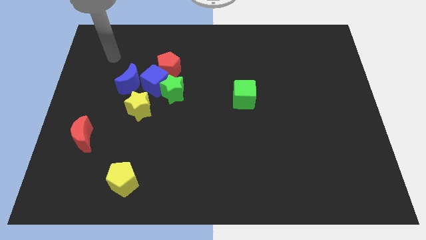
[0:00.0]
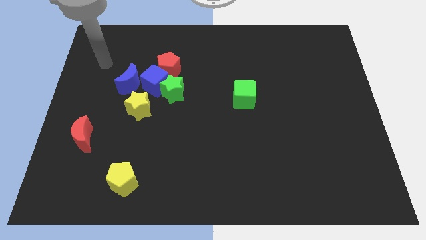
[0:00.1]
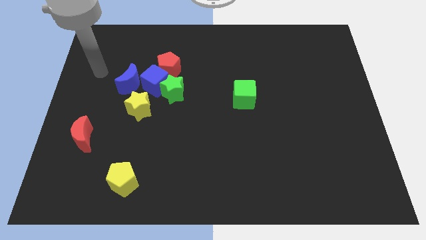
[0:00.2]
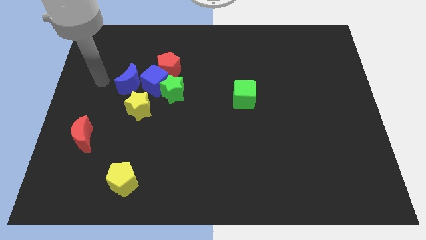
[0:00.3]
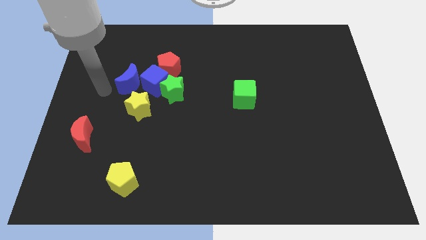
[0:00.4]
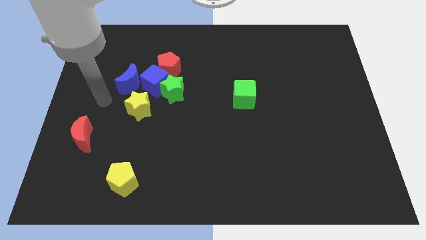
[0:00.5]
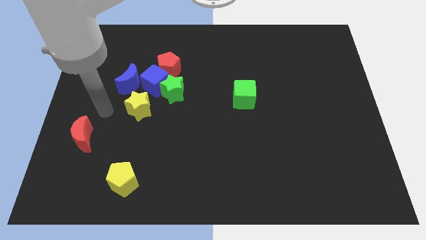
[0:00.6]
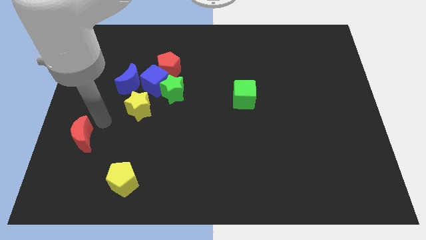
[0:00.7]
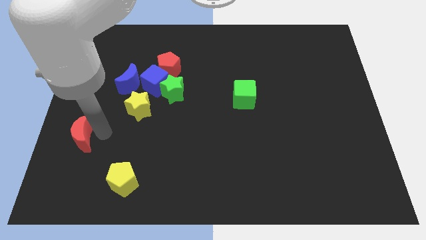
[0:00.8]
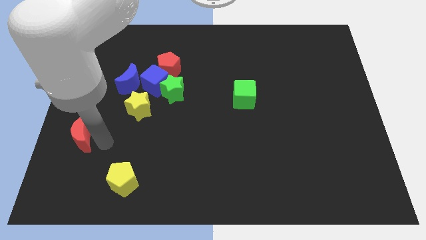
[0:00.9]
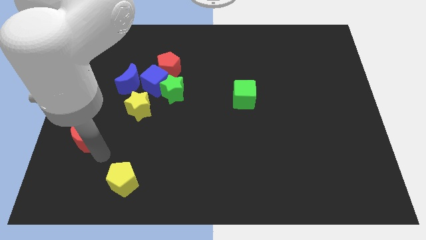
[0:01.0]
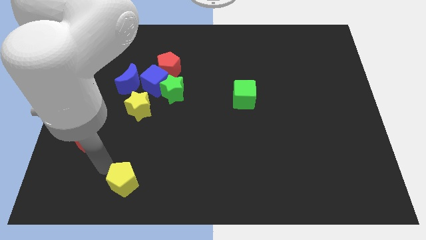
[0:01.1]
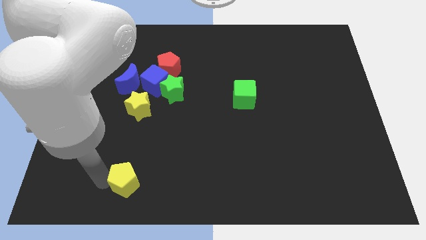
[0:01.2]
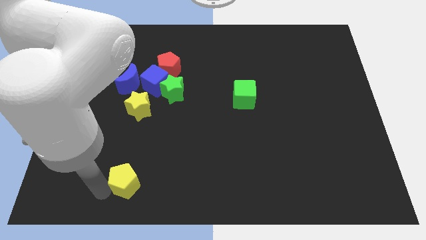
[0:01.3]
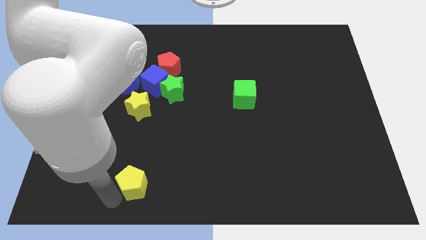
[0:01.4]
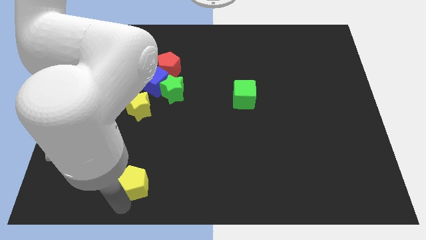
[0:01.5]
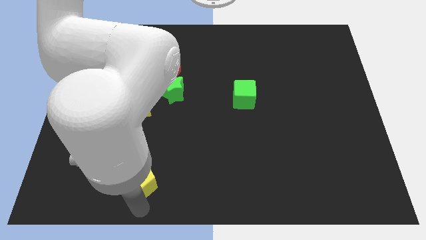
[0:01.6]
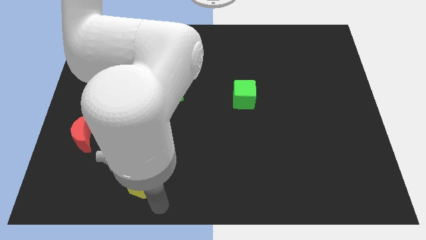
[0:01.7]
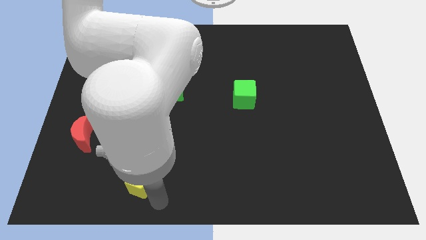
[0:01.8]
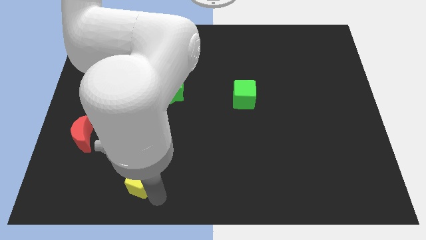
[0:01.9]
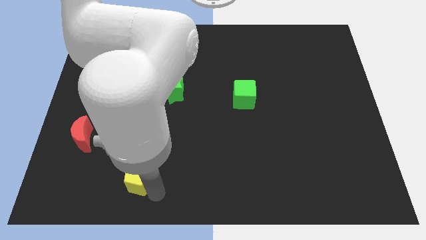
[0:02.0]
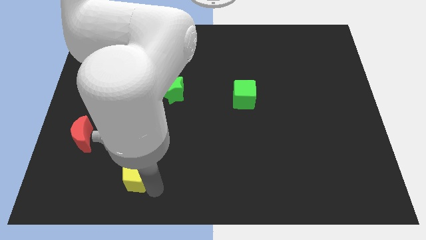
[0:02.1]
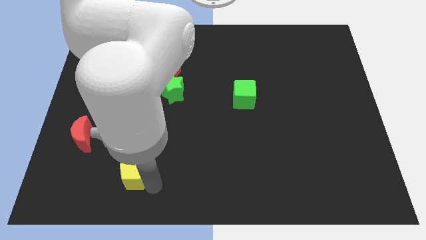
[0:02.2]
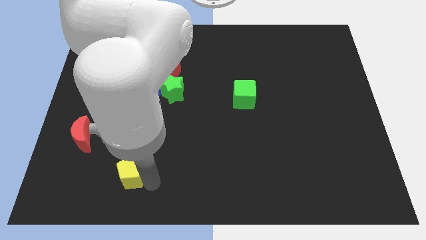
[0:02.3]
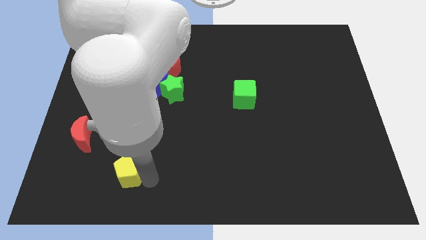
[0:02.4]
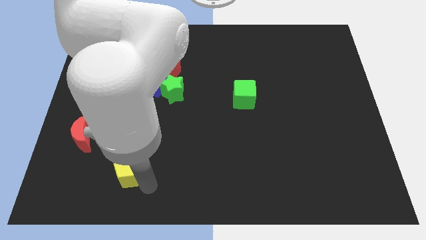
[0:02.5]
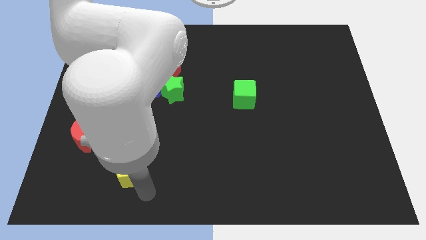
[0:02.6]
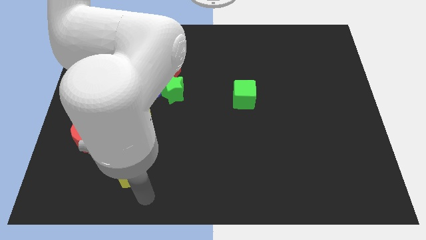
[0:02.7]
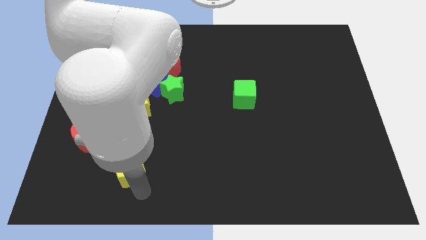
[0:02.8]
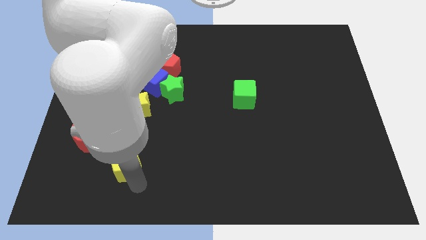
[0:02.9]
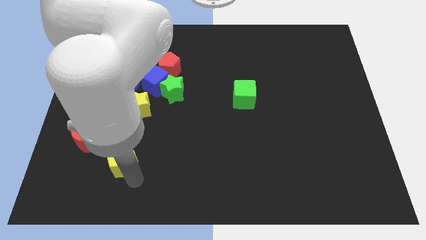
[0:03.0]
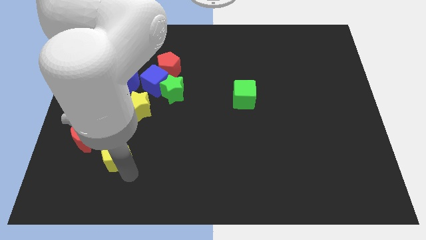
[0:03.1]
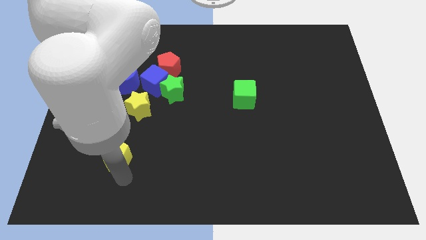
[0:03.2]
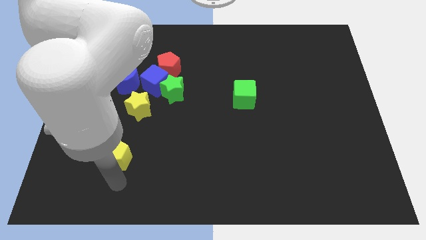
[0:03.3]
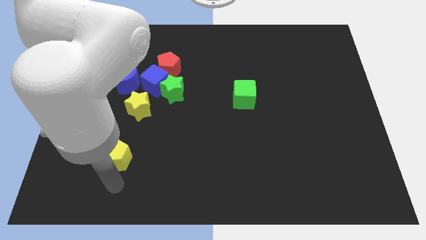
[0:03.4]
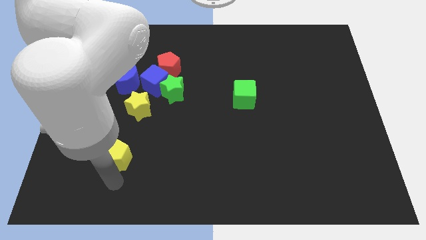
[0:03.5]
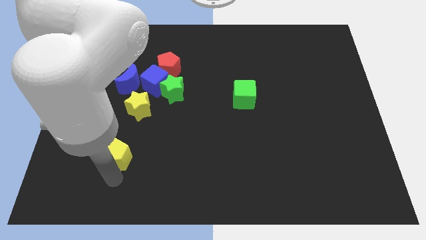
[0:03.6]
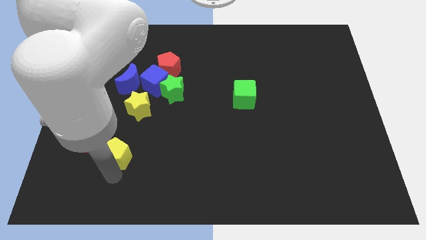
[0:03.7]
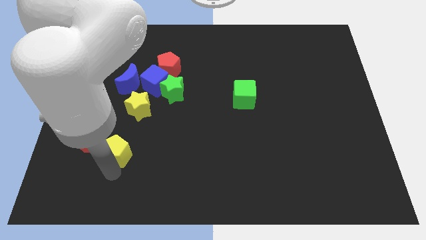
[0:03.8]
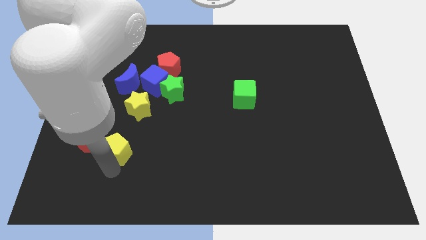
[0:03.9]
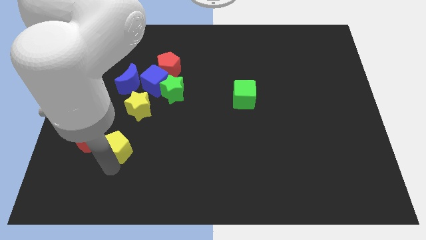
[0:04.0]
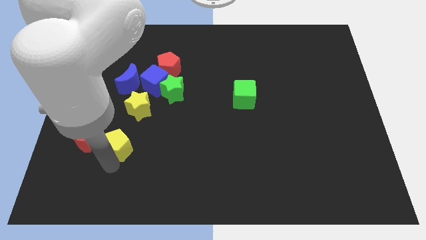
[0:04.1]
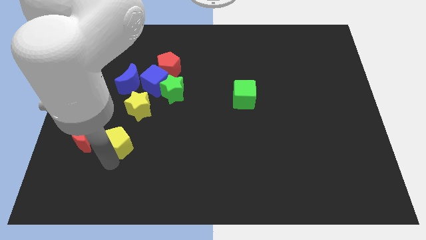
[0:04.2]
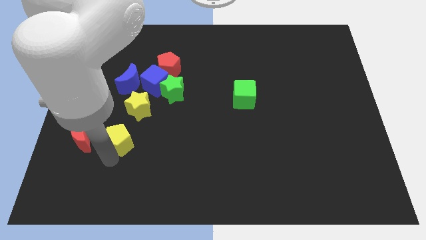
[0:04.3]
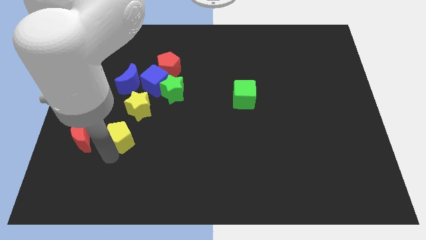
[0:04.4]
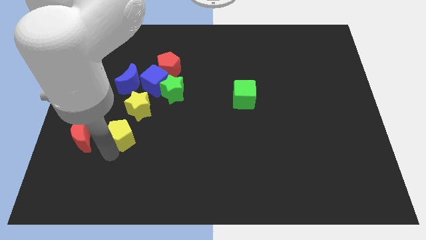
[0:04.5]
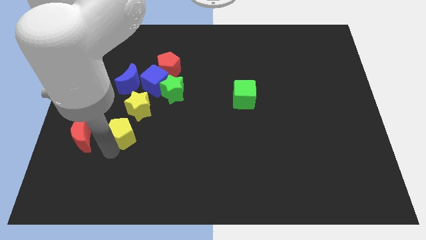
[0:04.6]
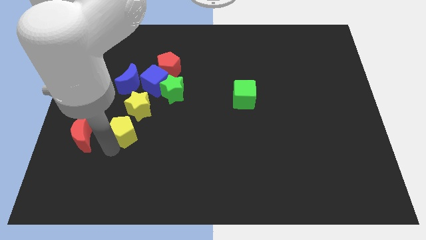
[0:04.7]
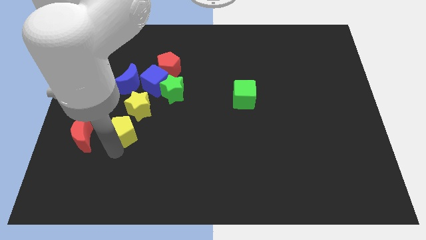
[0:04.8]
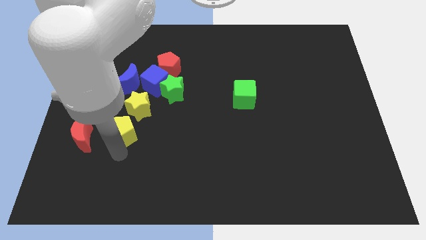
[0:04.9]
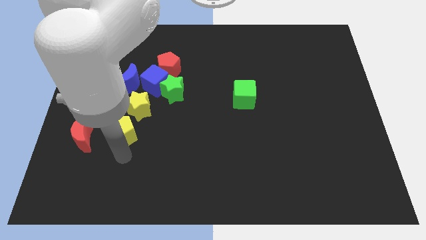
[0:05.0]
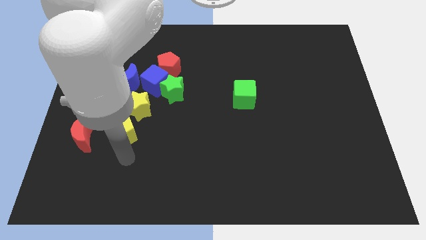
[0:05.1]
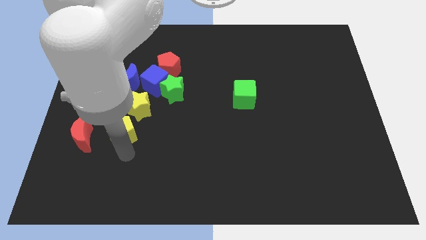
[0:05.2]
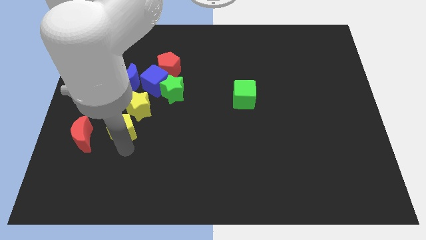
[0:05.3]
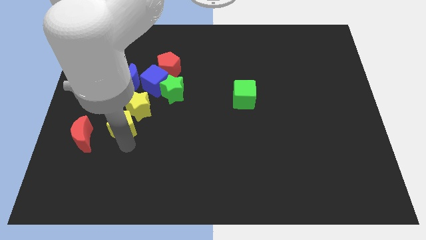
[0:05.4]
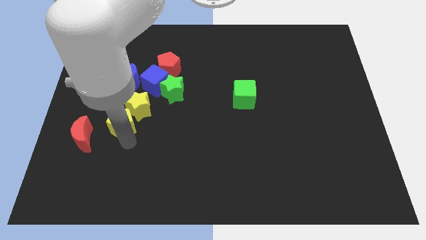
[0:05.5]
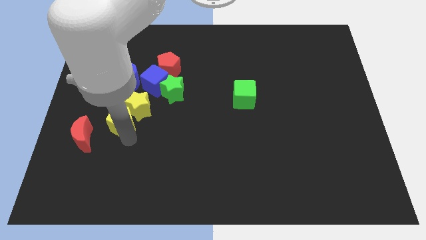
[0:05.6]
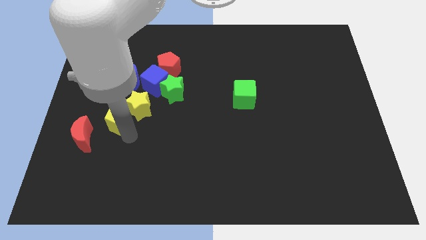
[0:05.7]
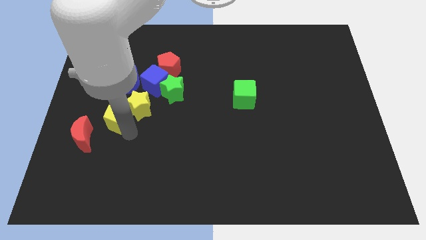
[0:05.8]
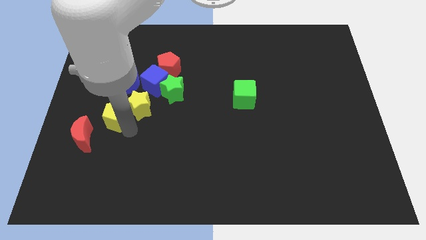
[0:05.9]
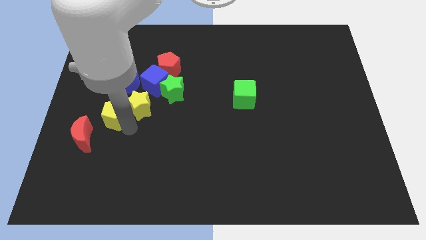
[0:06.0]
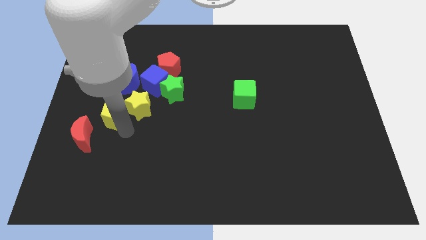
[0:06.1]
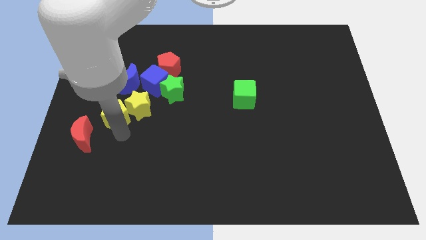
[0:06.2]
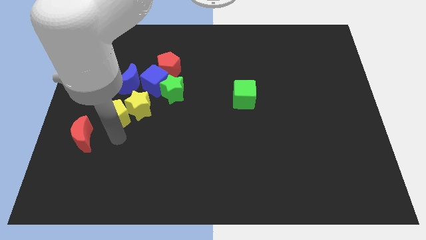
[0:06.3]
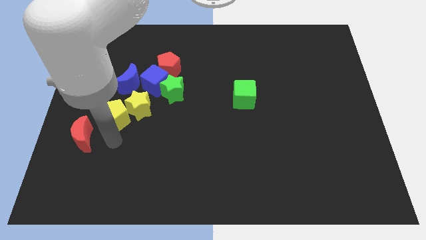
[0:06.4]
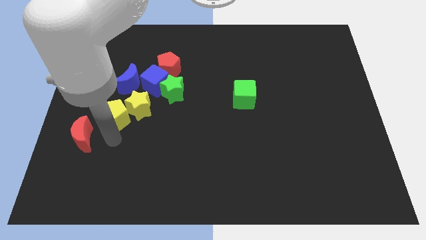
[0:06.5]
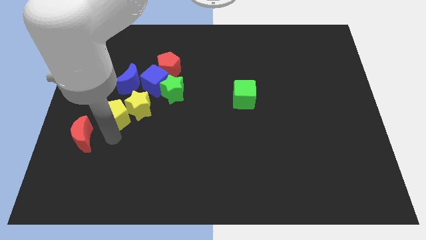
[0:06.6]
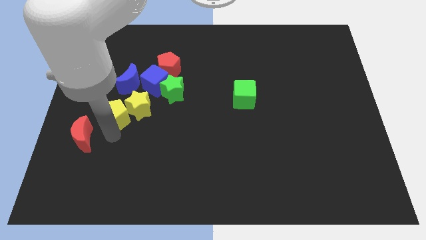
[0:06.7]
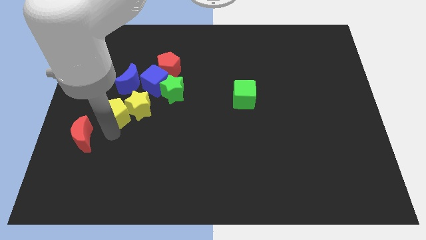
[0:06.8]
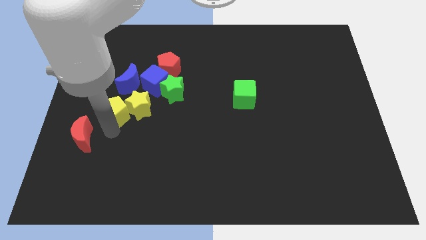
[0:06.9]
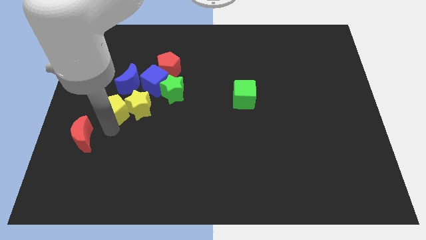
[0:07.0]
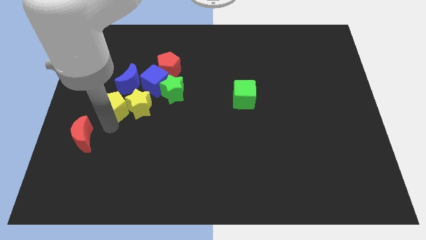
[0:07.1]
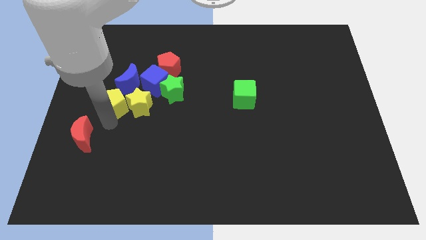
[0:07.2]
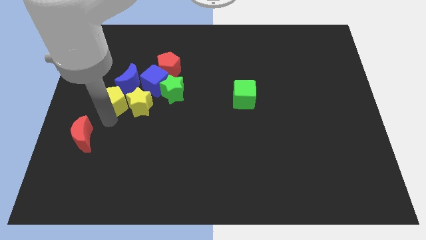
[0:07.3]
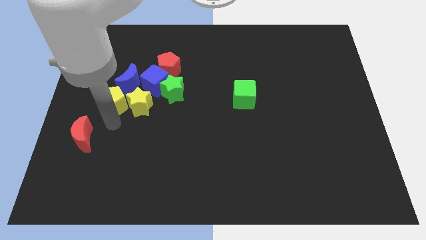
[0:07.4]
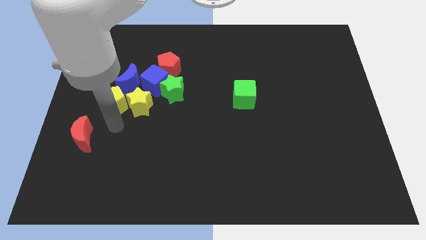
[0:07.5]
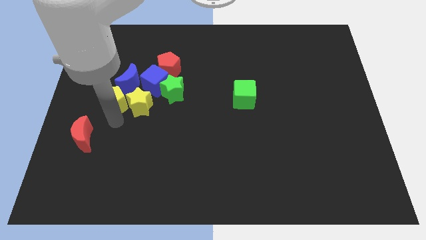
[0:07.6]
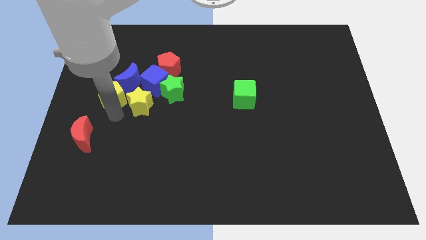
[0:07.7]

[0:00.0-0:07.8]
push the yellow pentagon to the left of the blue cube
